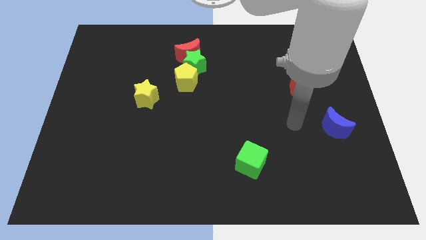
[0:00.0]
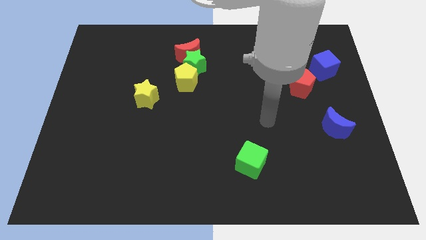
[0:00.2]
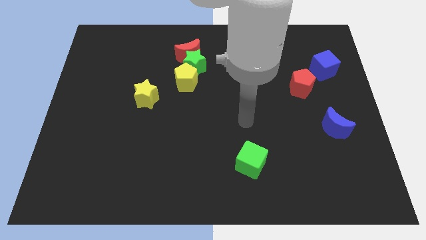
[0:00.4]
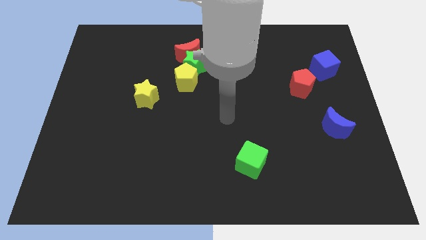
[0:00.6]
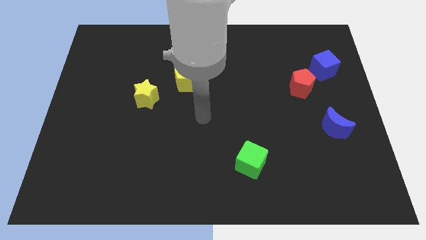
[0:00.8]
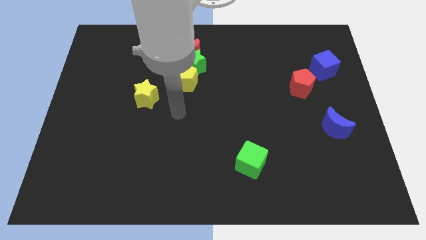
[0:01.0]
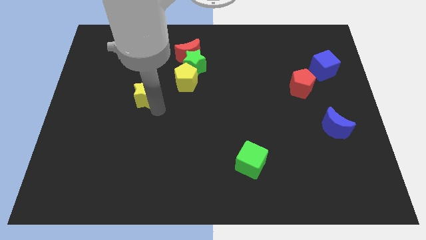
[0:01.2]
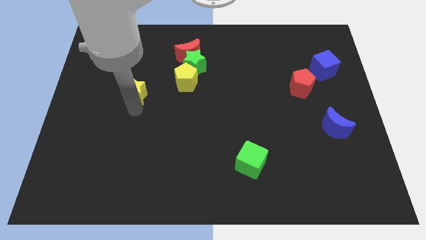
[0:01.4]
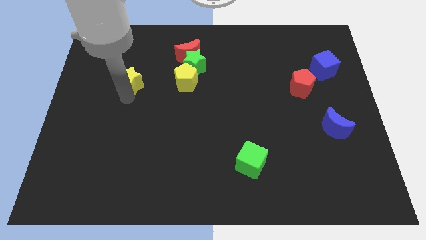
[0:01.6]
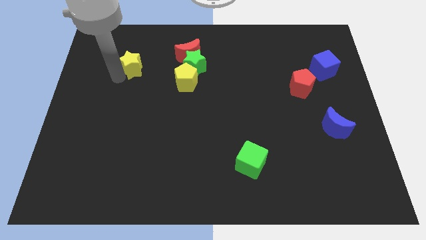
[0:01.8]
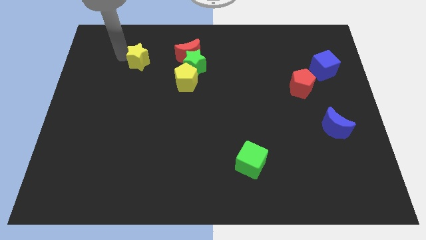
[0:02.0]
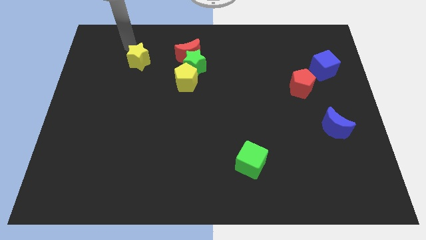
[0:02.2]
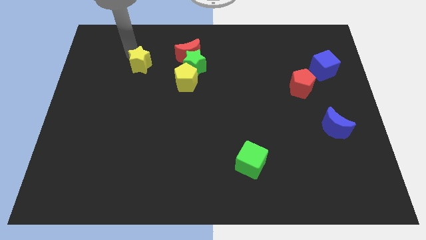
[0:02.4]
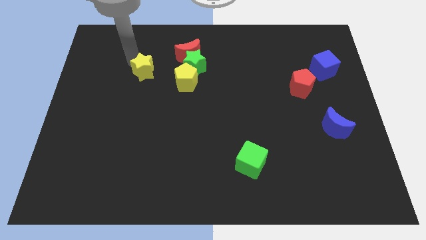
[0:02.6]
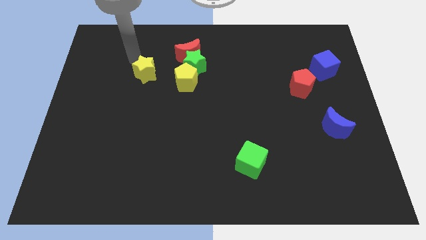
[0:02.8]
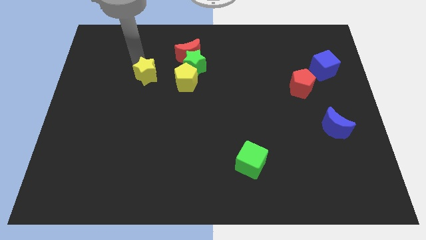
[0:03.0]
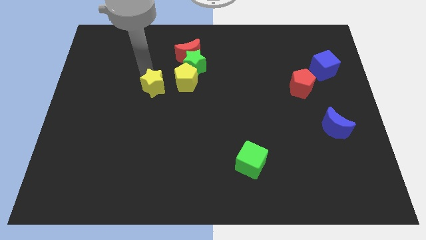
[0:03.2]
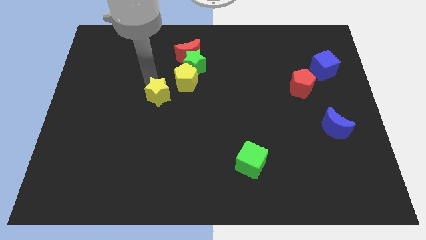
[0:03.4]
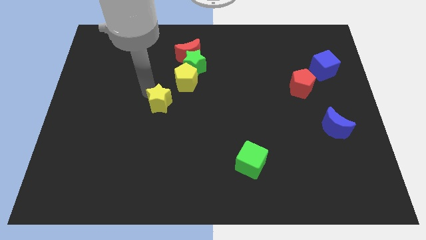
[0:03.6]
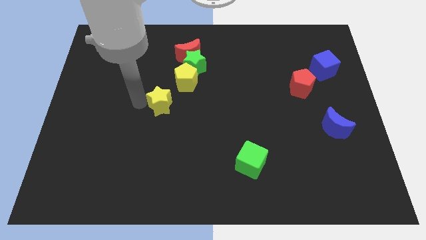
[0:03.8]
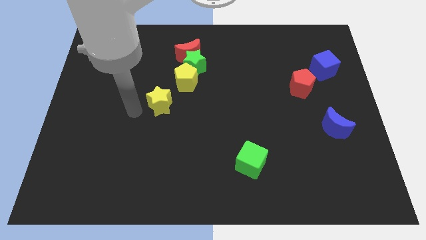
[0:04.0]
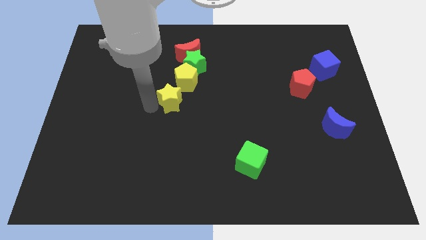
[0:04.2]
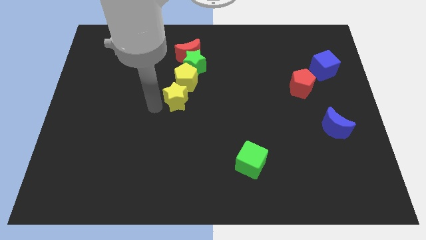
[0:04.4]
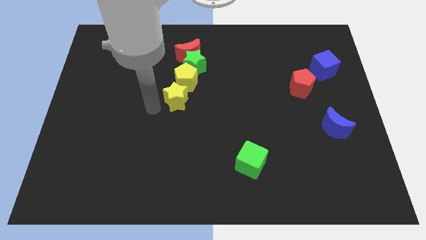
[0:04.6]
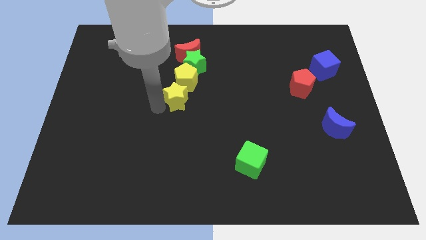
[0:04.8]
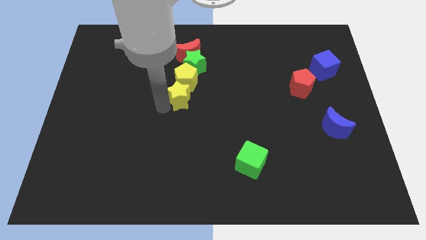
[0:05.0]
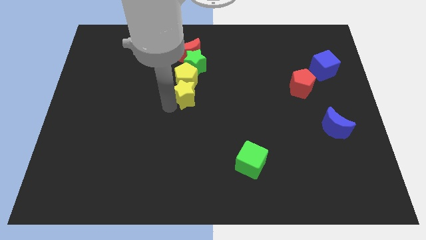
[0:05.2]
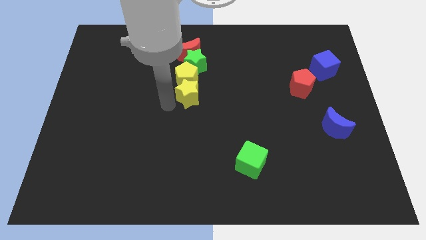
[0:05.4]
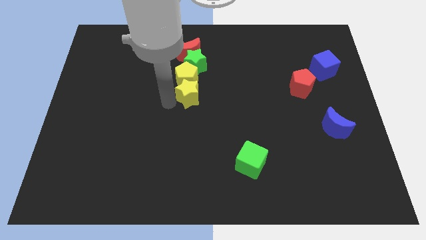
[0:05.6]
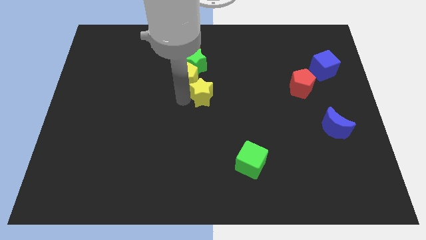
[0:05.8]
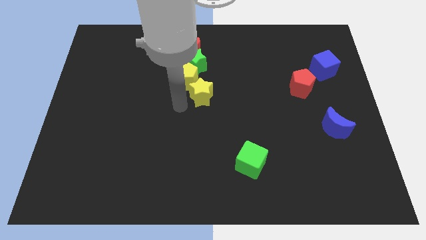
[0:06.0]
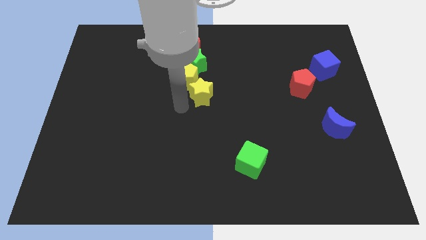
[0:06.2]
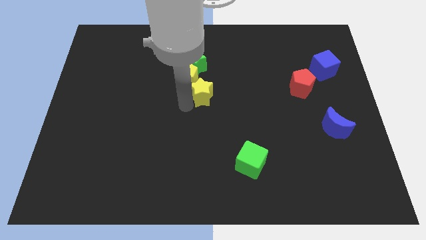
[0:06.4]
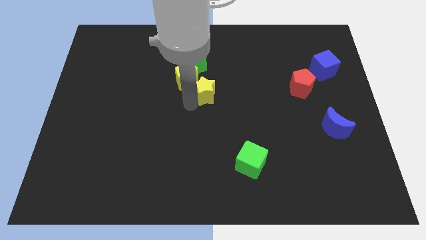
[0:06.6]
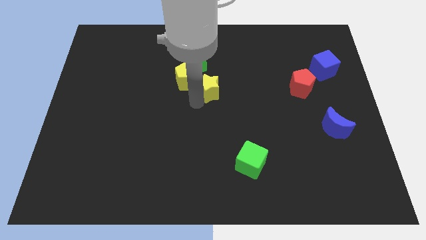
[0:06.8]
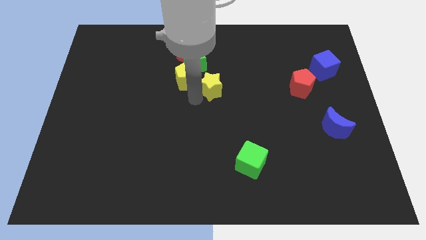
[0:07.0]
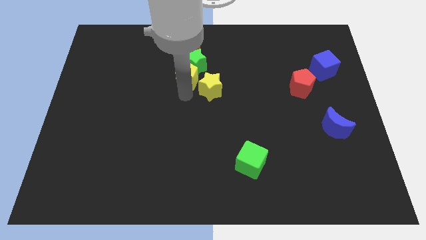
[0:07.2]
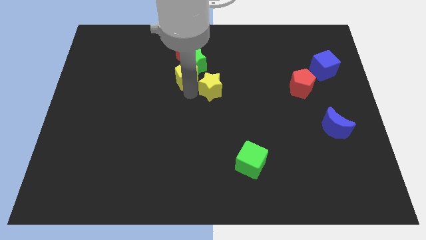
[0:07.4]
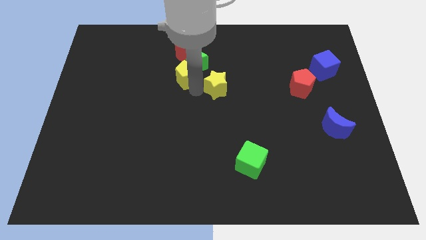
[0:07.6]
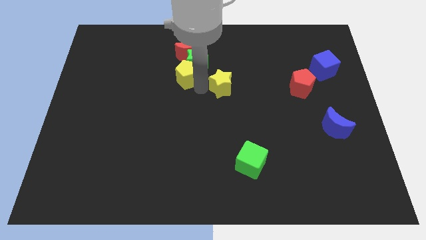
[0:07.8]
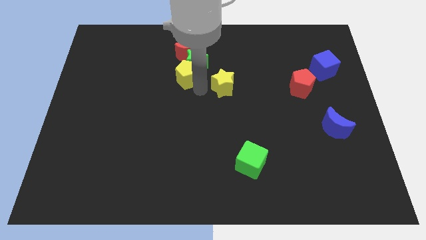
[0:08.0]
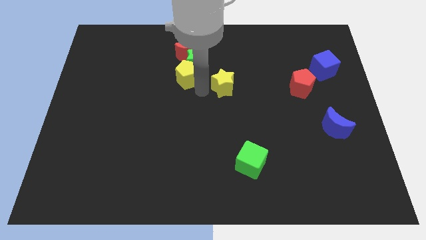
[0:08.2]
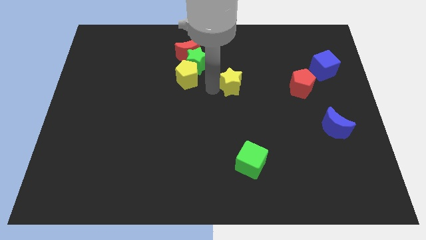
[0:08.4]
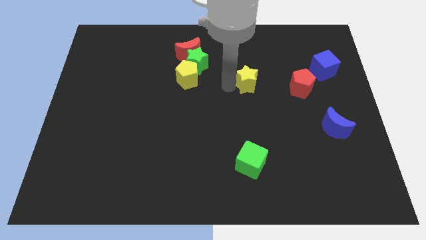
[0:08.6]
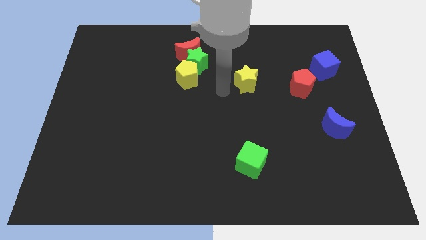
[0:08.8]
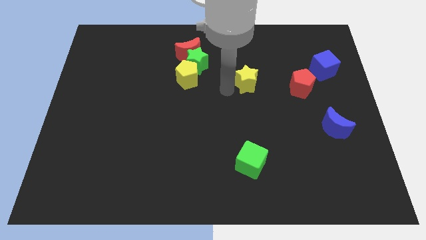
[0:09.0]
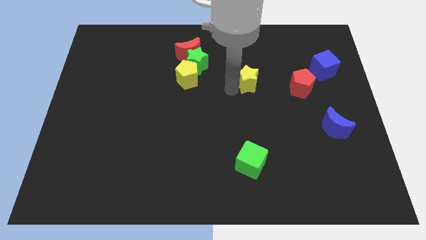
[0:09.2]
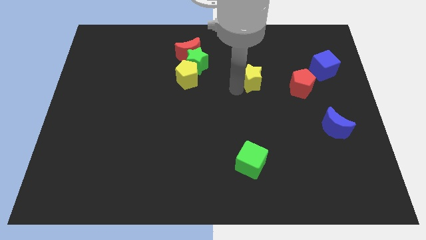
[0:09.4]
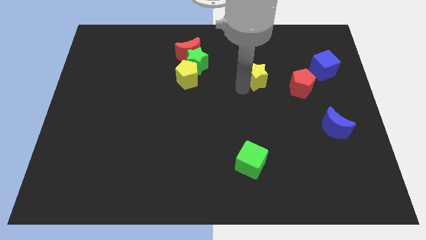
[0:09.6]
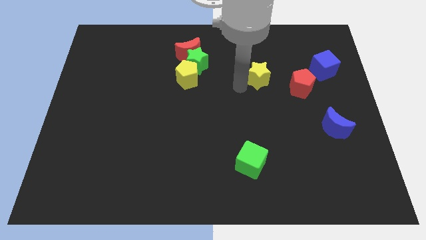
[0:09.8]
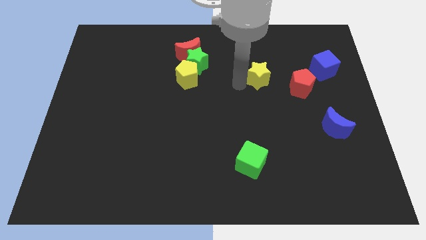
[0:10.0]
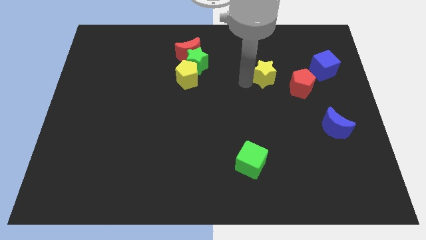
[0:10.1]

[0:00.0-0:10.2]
slide the yellow star to the top left side of the red pentagon

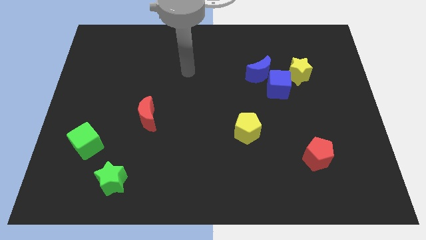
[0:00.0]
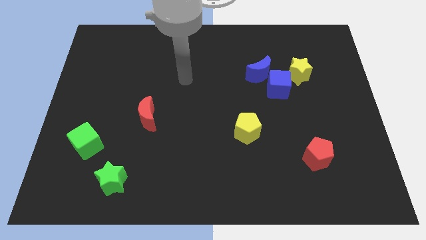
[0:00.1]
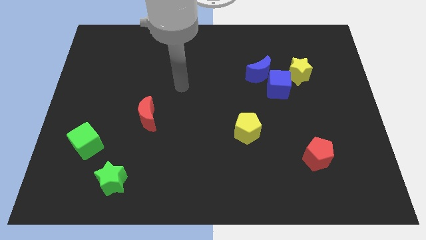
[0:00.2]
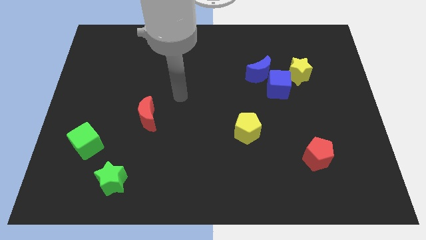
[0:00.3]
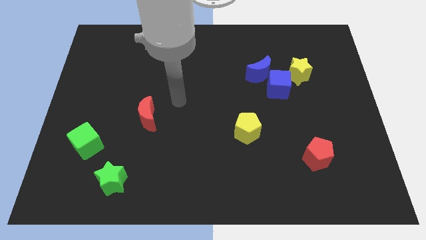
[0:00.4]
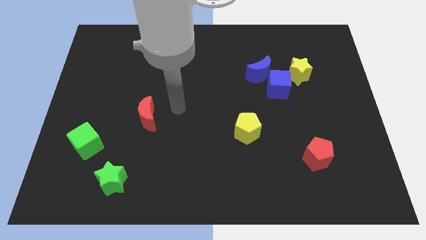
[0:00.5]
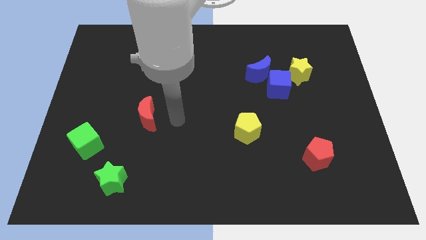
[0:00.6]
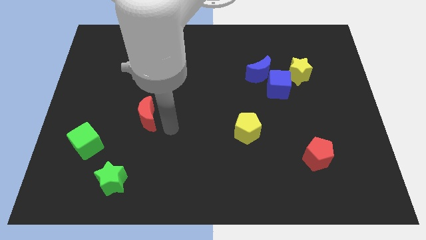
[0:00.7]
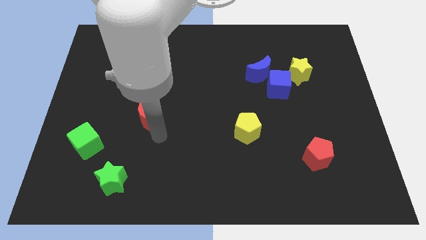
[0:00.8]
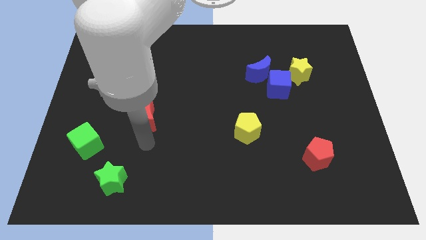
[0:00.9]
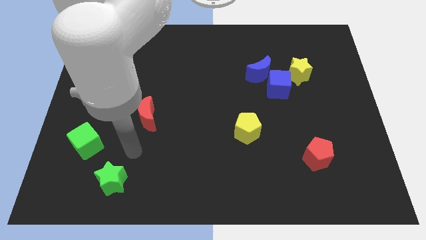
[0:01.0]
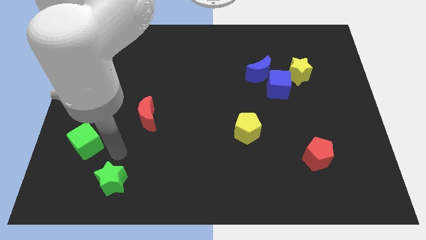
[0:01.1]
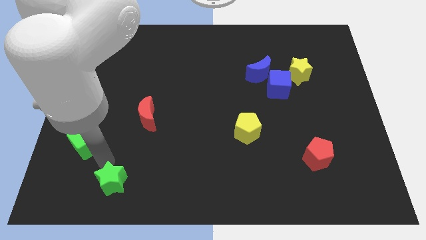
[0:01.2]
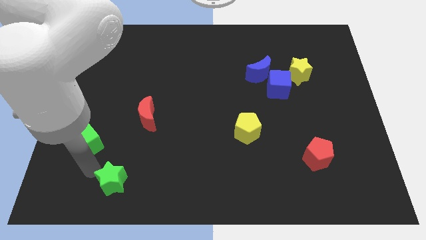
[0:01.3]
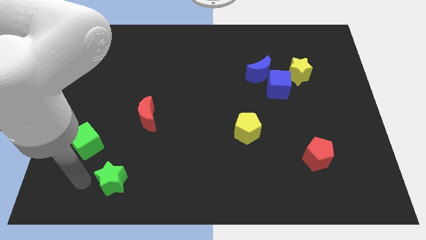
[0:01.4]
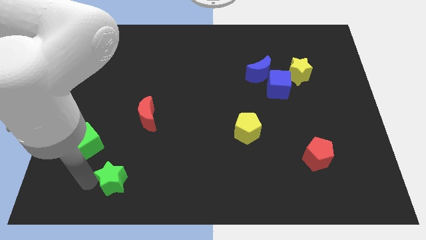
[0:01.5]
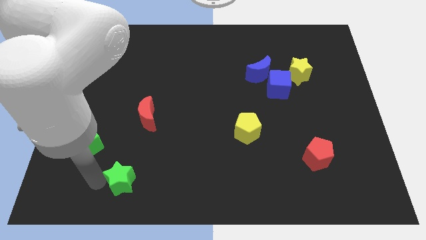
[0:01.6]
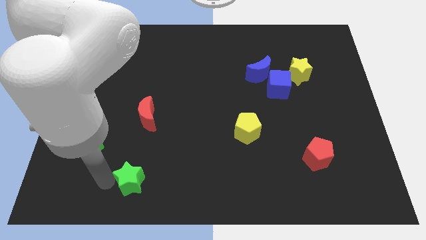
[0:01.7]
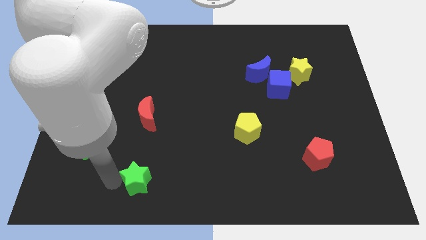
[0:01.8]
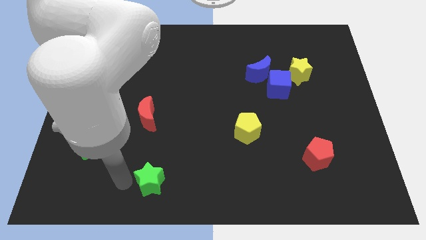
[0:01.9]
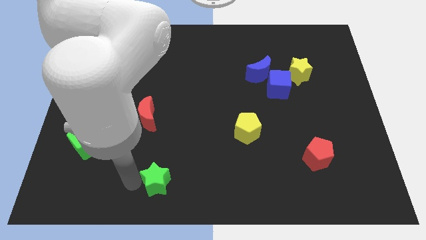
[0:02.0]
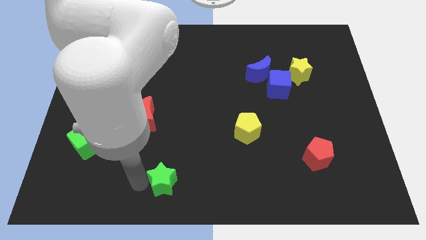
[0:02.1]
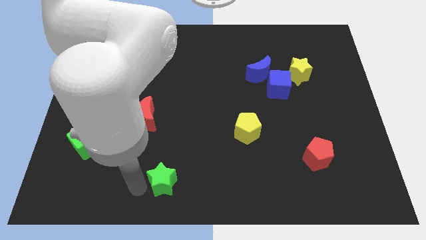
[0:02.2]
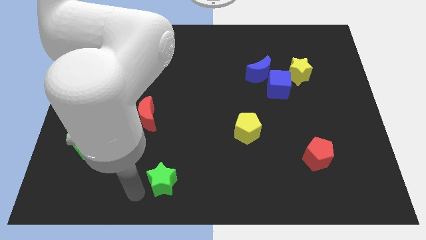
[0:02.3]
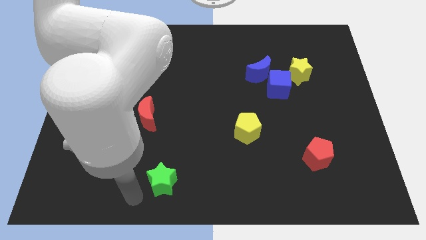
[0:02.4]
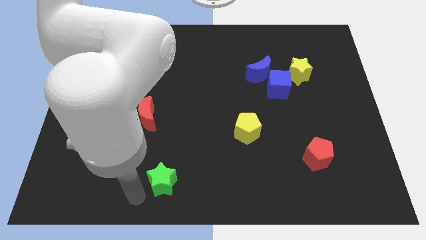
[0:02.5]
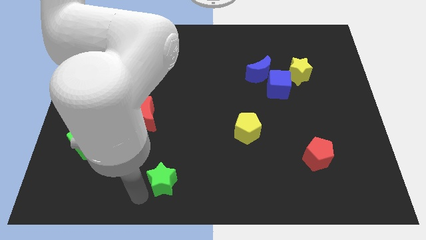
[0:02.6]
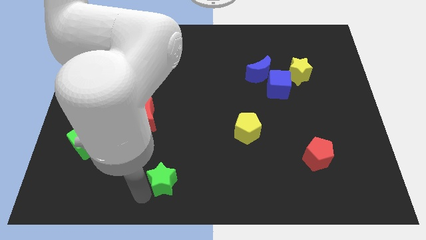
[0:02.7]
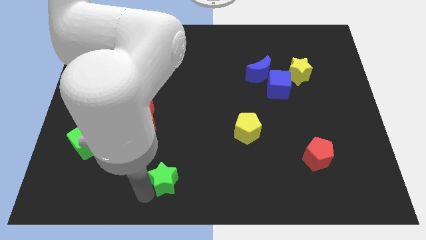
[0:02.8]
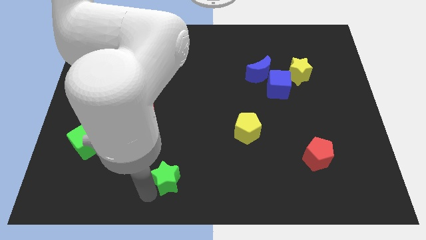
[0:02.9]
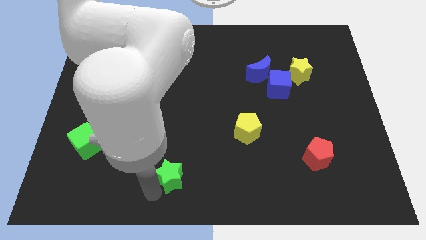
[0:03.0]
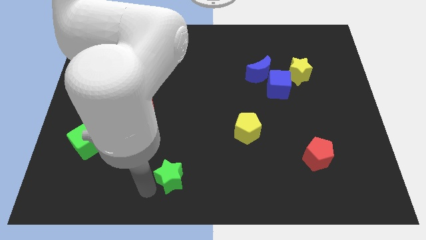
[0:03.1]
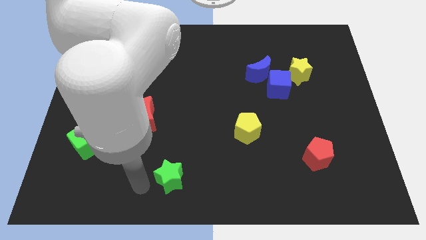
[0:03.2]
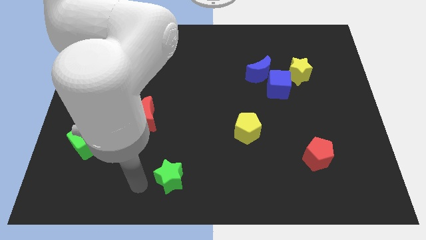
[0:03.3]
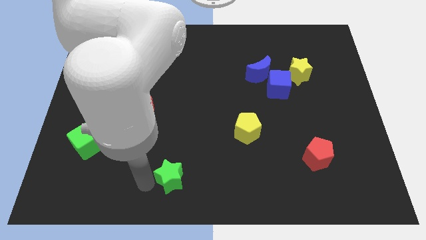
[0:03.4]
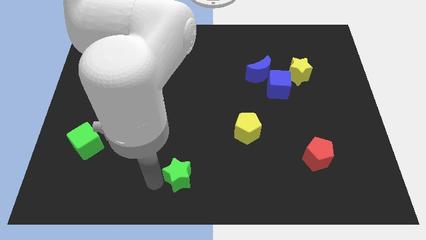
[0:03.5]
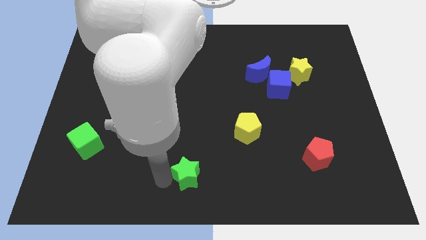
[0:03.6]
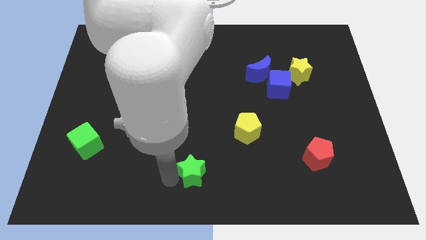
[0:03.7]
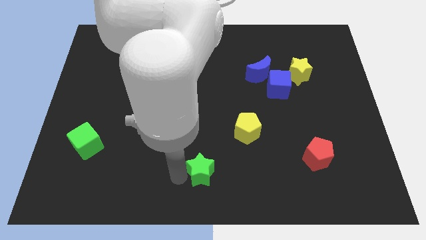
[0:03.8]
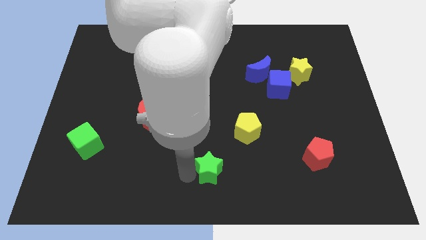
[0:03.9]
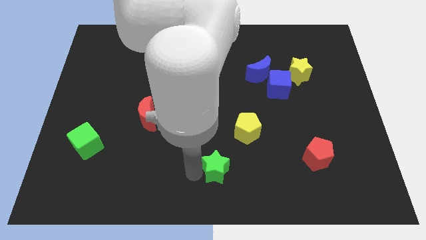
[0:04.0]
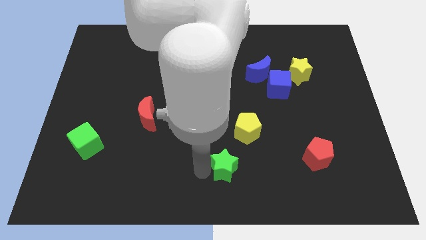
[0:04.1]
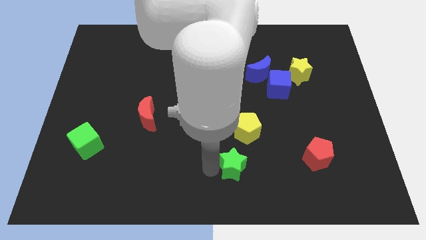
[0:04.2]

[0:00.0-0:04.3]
slide the green star to the bottom side of the yellow pentagon
